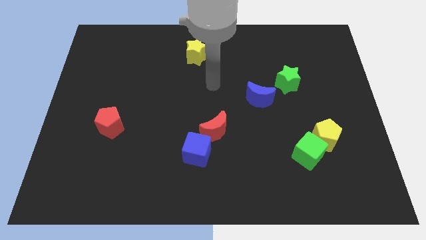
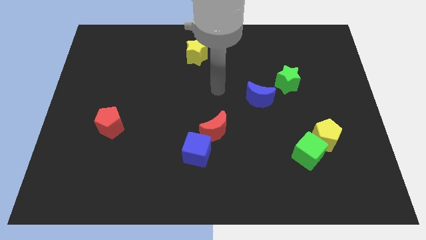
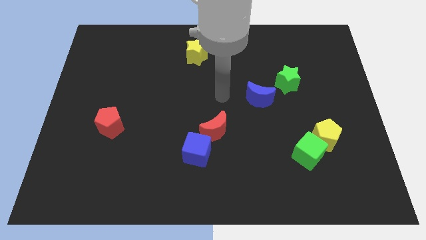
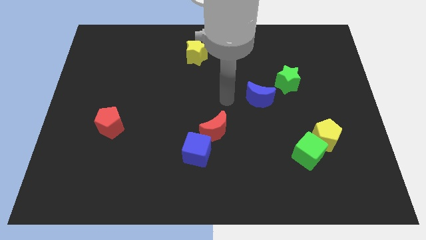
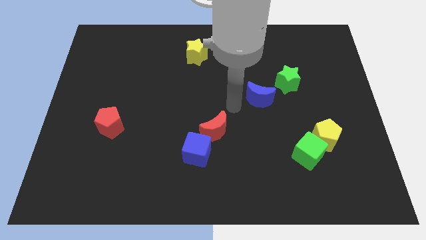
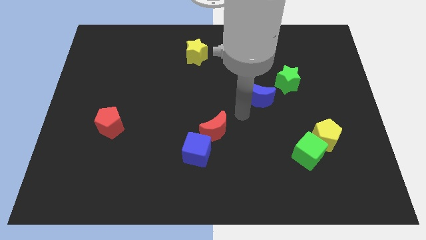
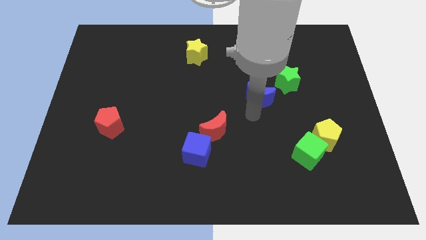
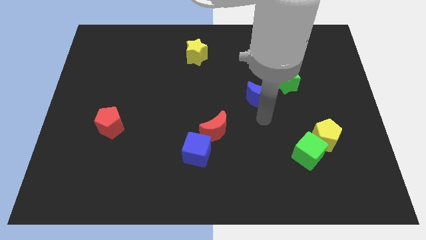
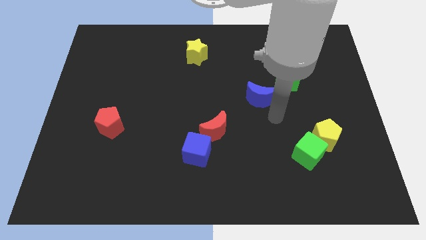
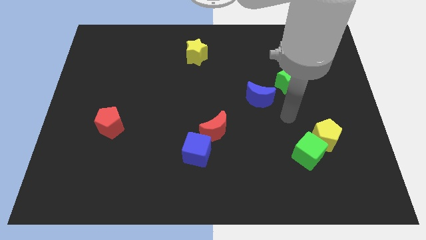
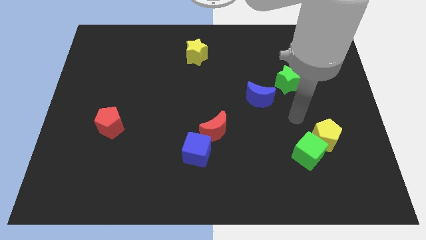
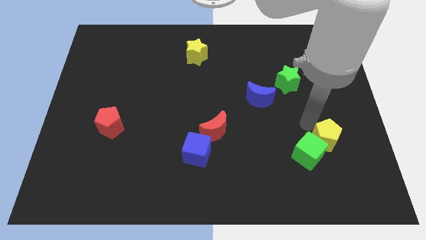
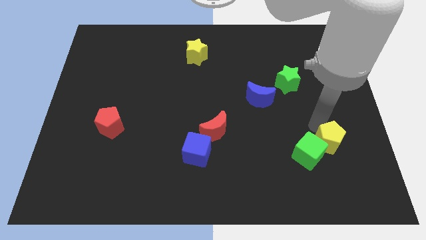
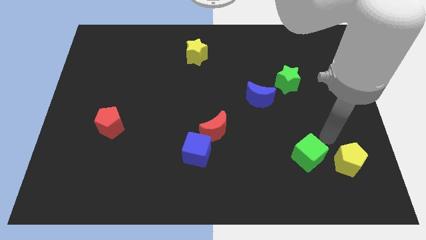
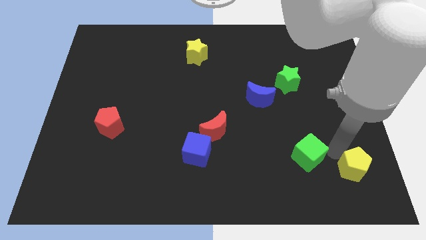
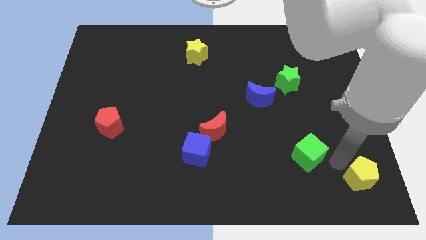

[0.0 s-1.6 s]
separate the green cube from the yellow pentagon

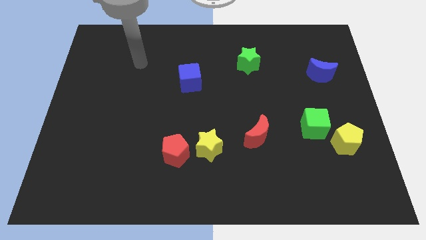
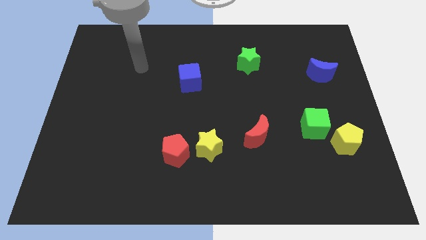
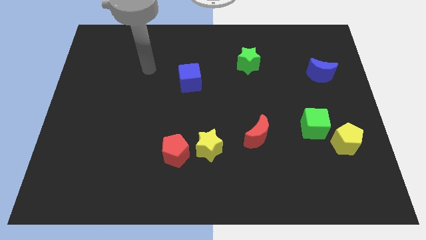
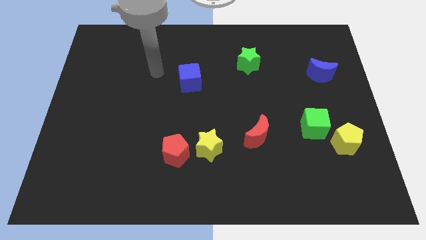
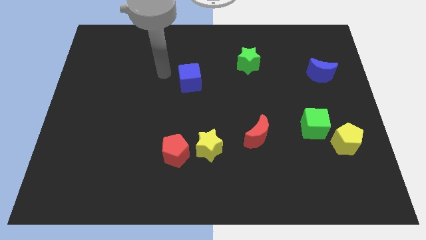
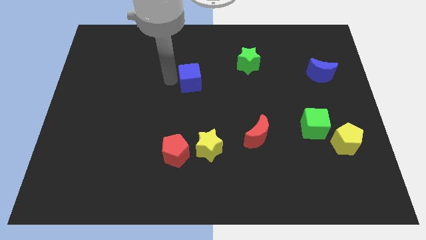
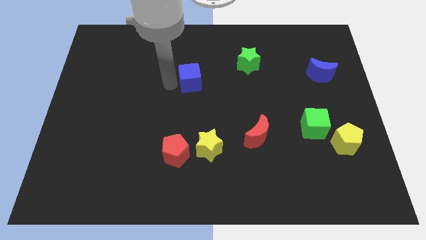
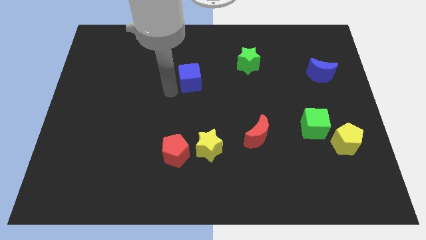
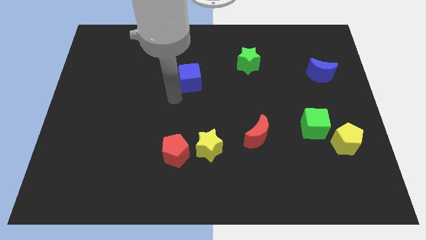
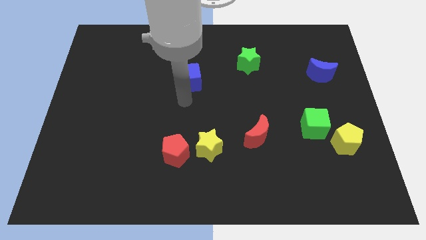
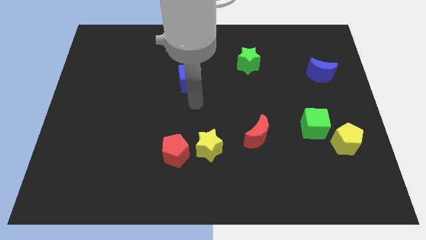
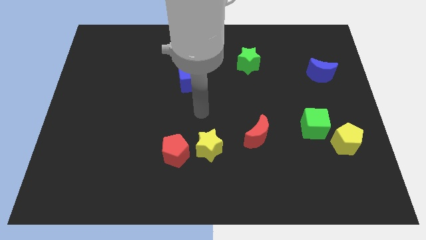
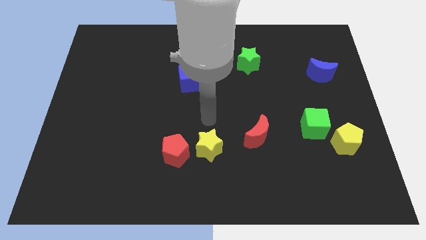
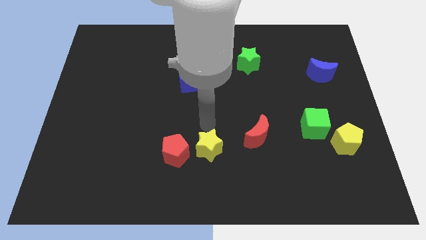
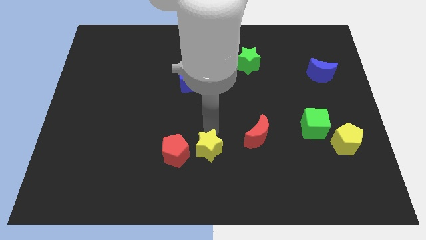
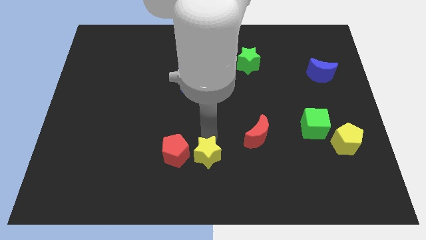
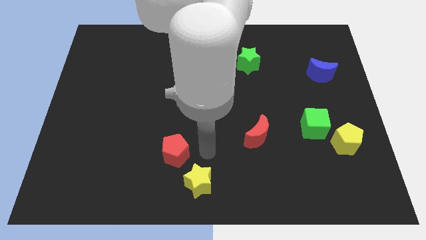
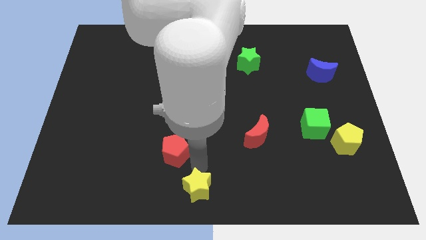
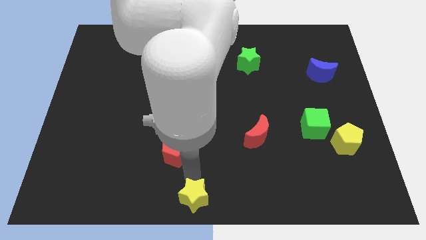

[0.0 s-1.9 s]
separate the red pentagon from the yellow star

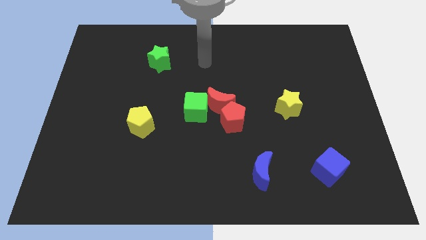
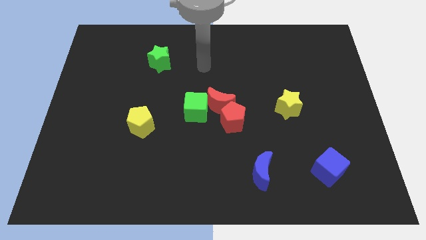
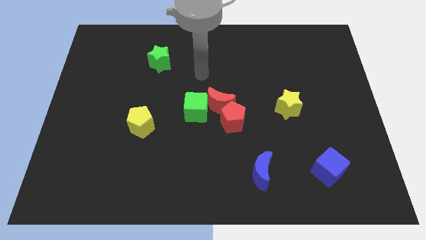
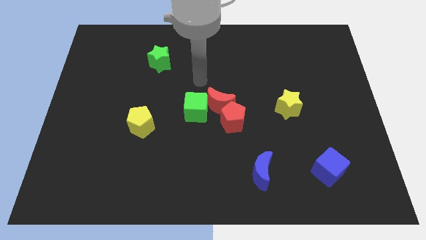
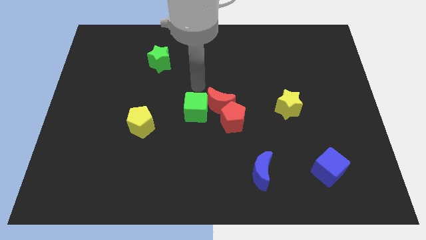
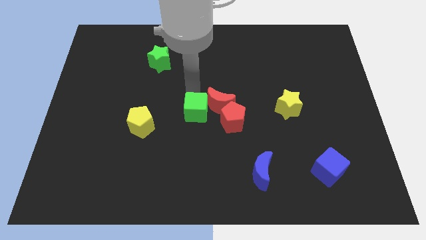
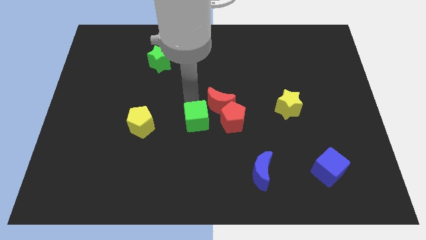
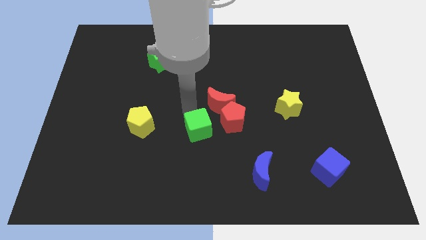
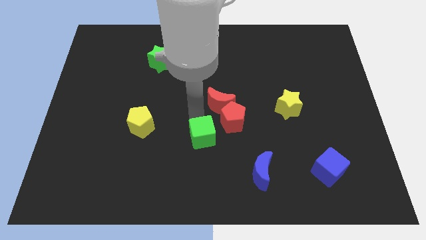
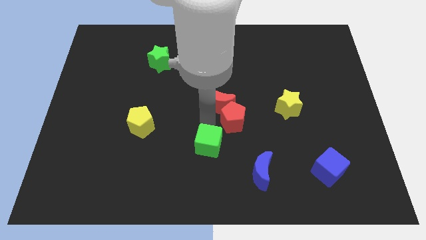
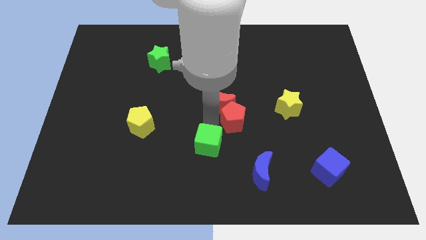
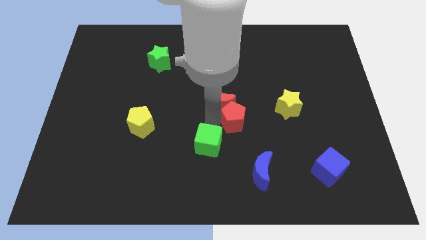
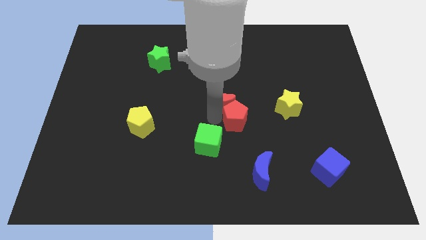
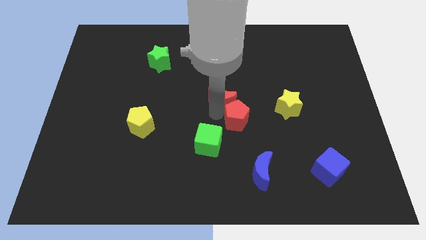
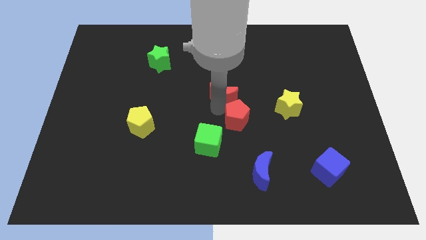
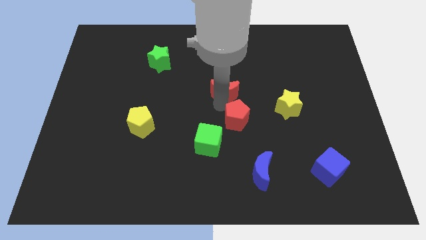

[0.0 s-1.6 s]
pull the red moon apart from the red pentagon and green cube

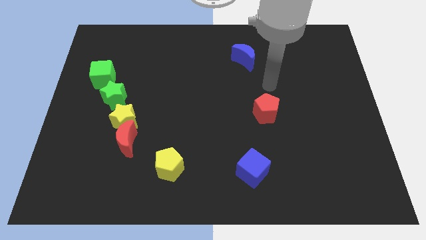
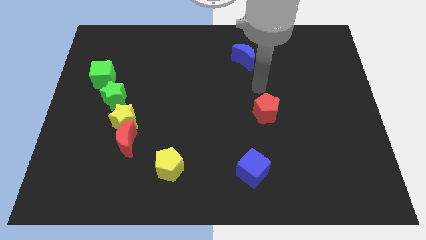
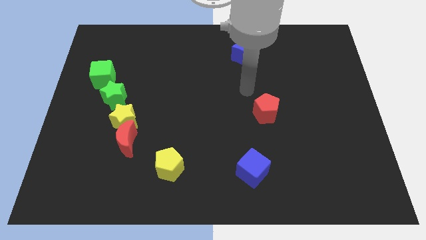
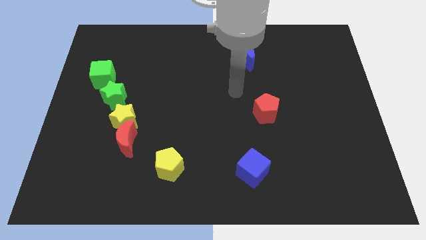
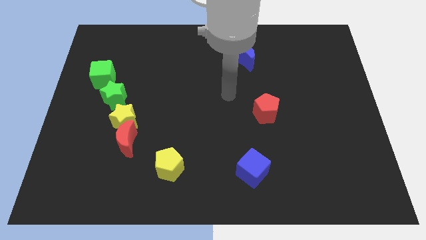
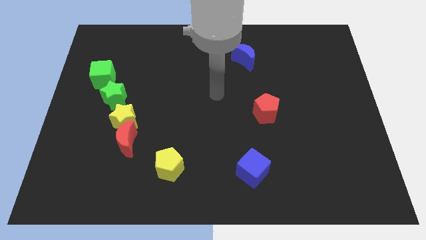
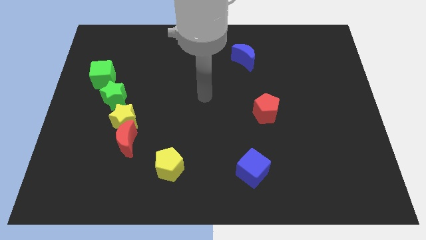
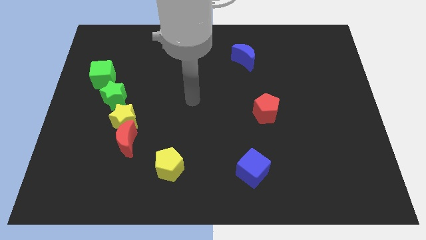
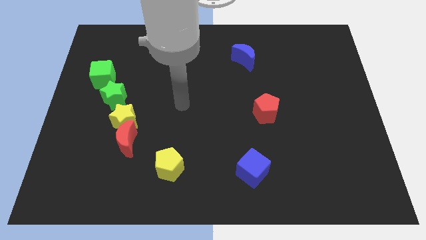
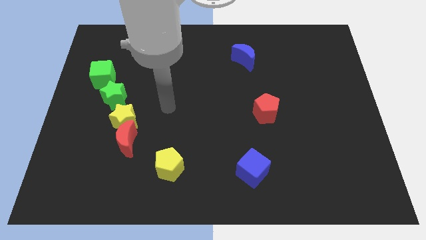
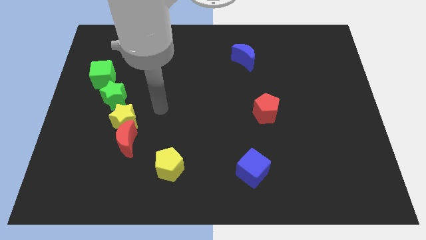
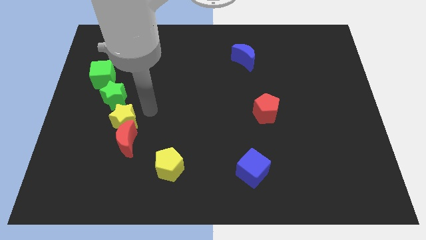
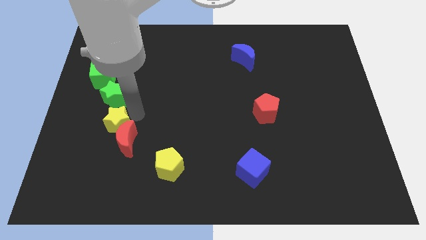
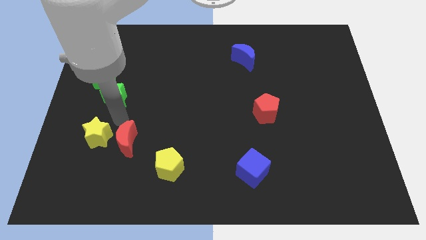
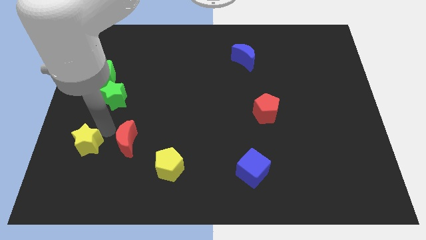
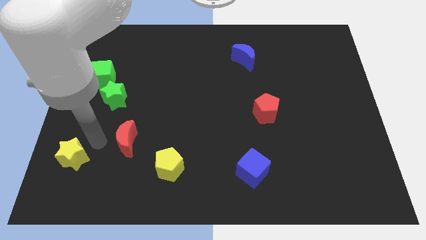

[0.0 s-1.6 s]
pull the red moon apart from the yellow star

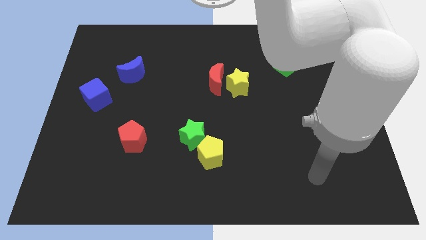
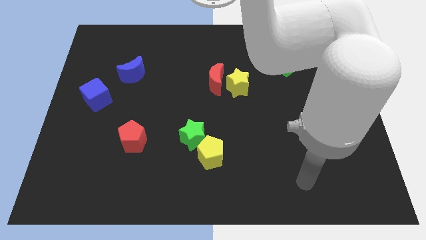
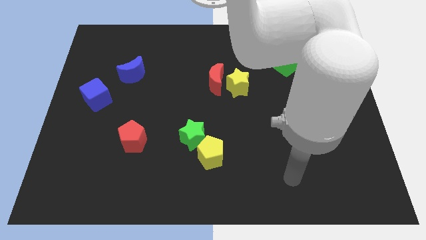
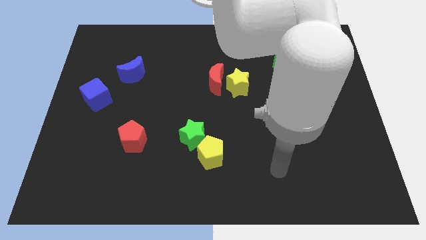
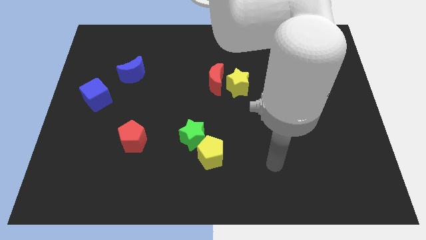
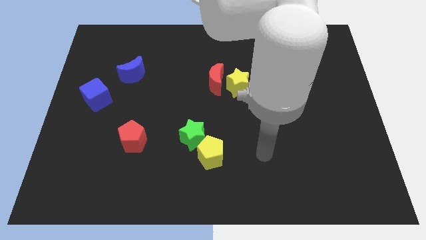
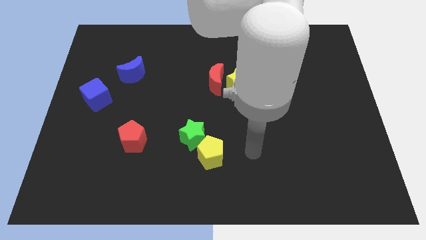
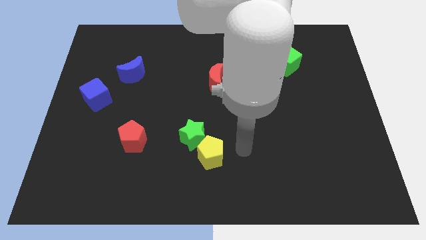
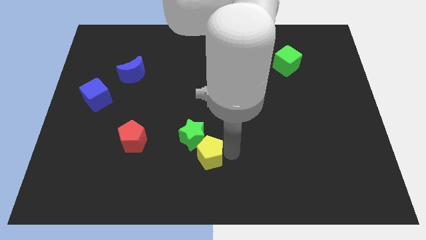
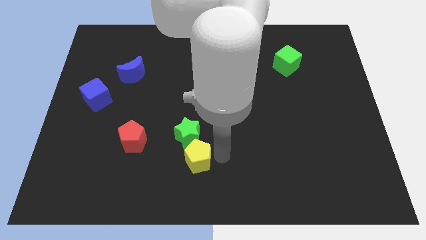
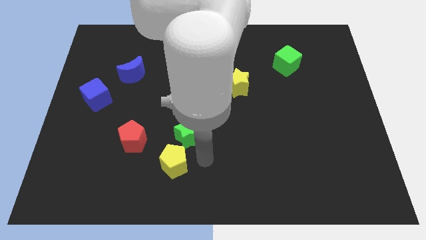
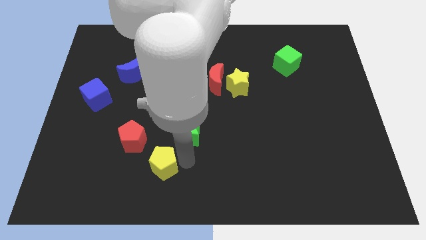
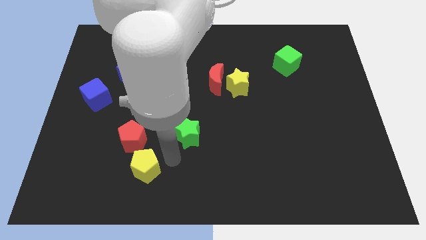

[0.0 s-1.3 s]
separate the green star from the yellow pentagon

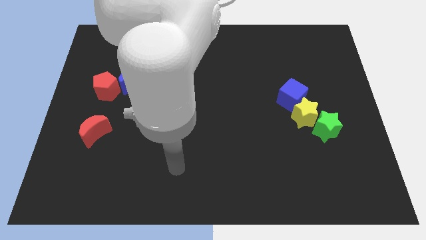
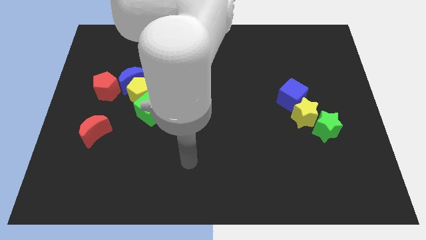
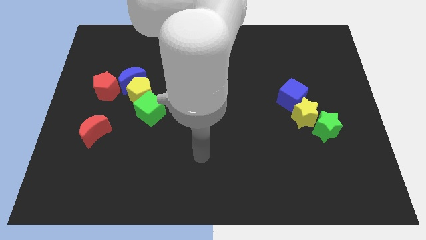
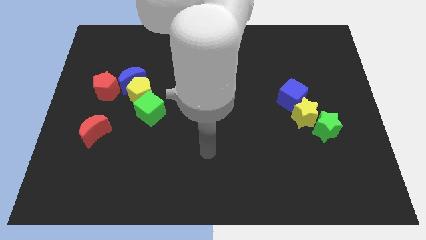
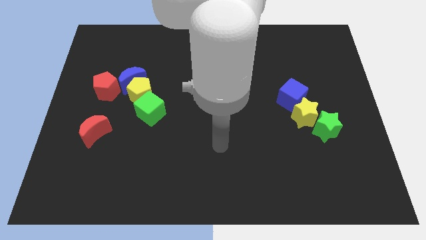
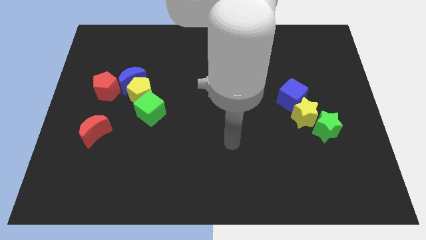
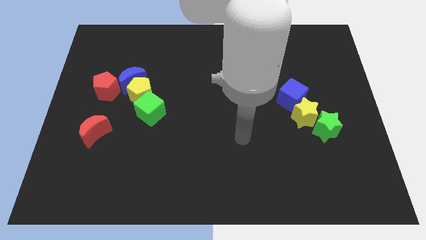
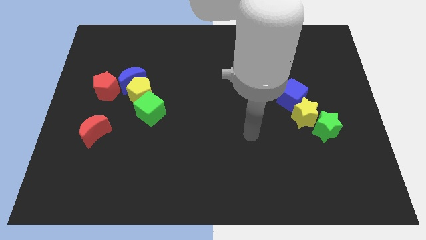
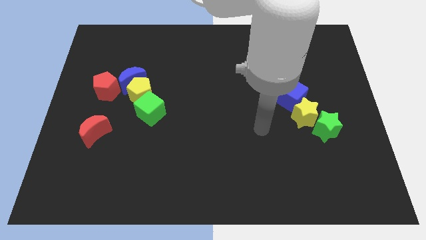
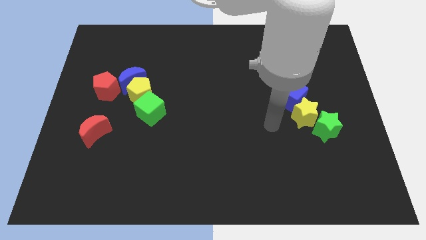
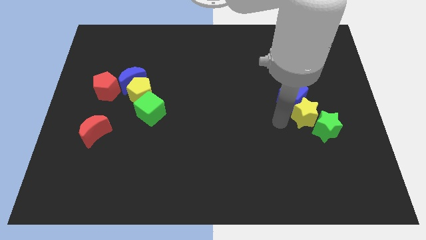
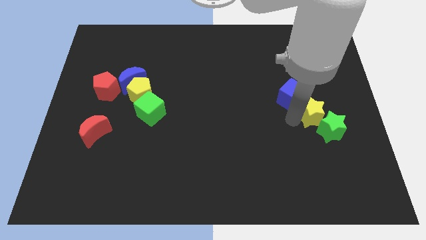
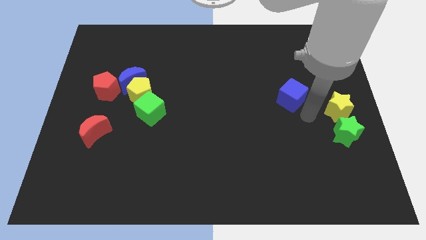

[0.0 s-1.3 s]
pull the blue cube apart from the yellow star
